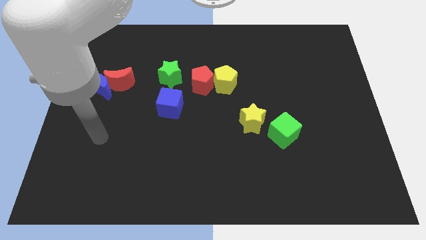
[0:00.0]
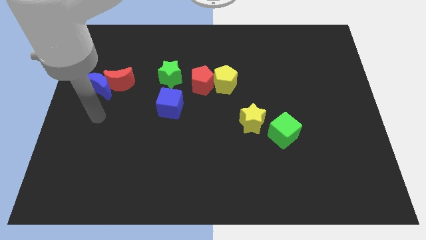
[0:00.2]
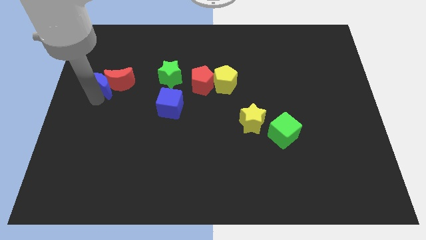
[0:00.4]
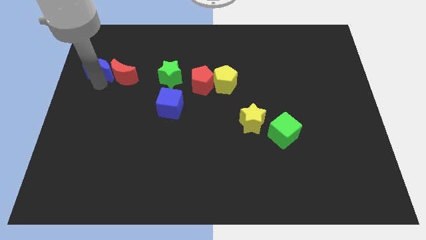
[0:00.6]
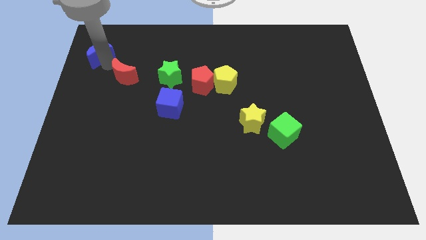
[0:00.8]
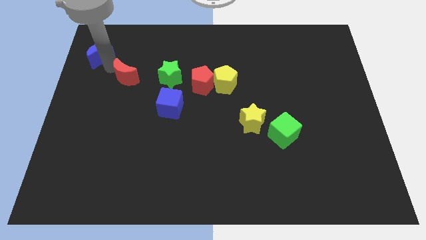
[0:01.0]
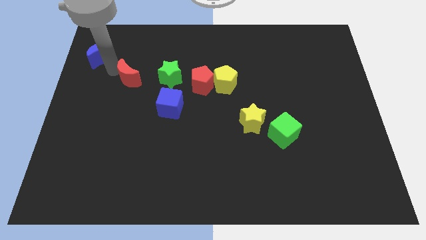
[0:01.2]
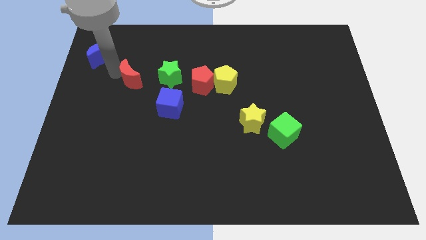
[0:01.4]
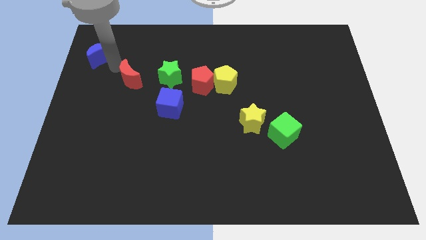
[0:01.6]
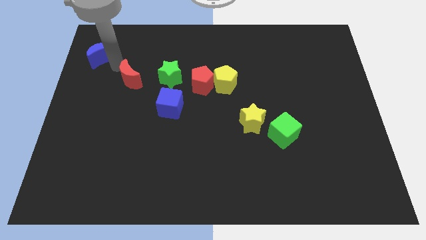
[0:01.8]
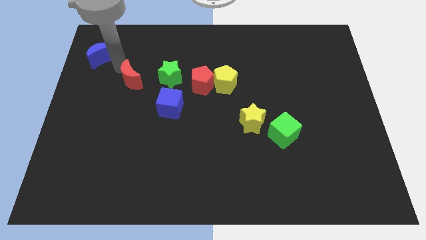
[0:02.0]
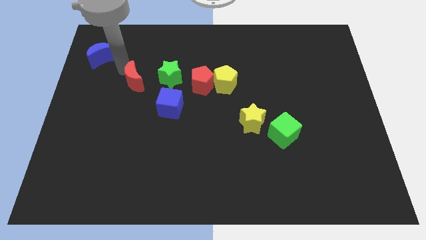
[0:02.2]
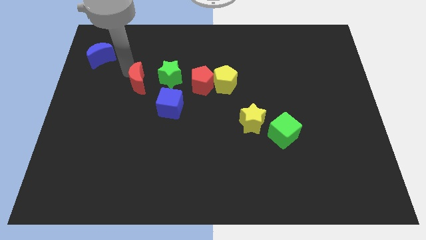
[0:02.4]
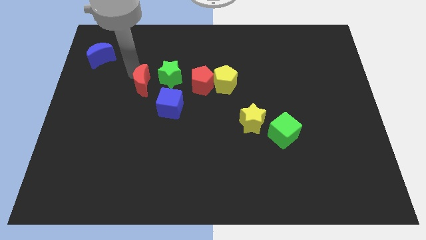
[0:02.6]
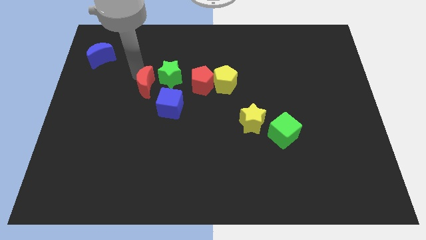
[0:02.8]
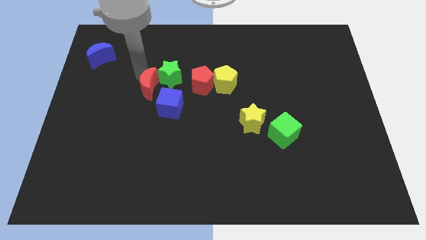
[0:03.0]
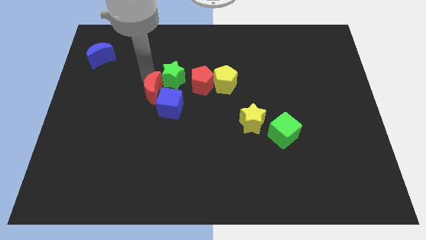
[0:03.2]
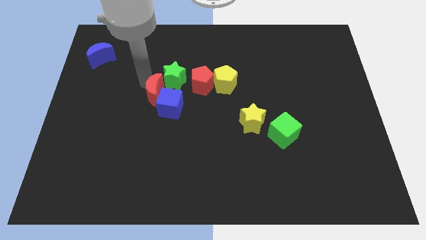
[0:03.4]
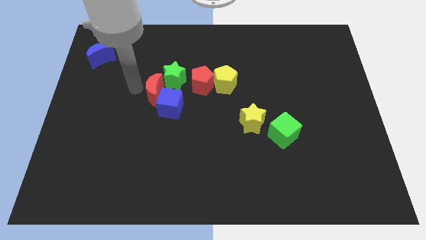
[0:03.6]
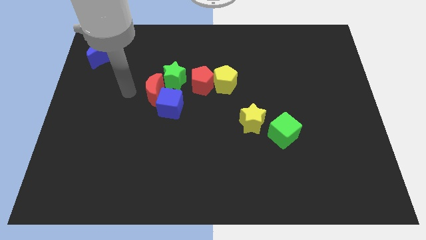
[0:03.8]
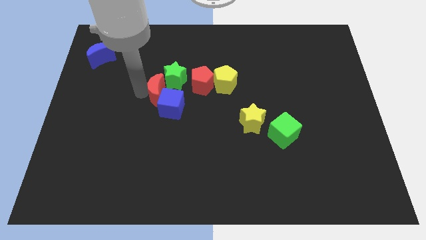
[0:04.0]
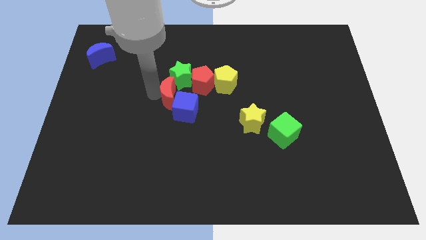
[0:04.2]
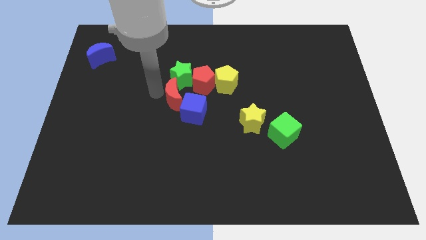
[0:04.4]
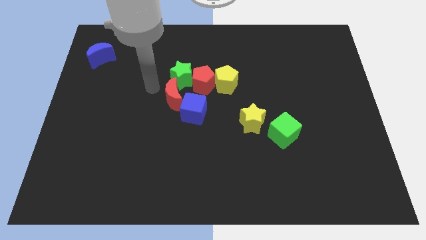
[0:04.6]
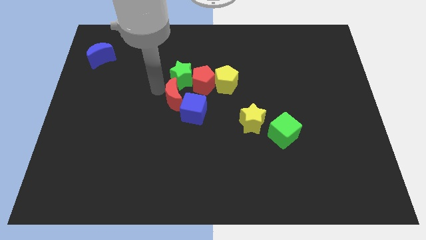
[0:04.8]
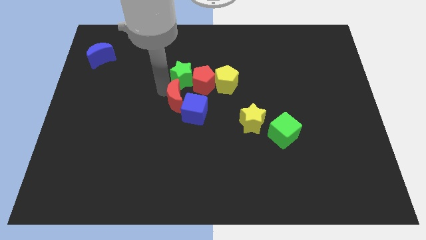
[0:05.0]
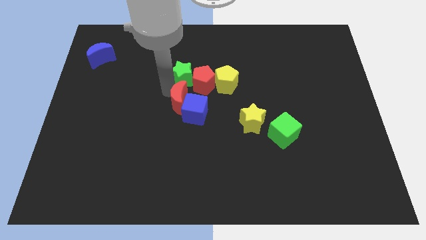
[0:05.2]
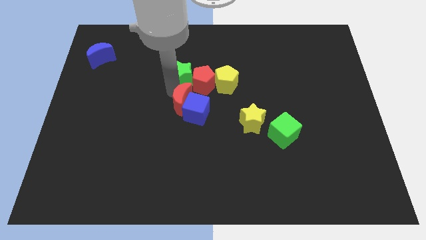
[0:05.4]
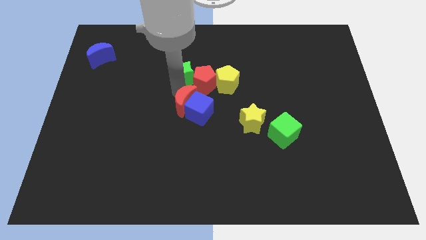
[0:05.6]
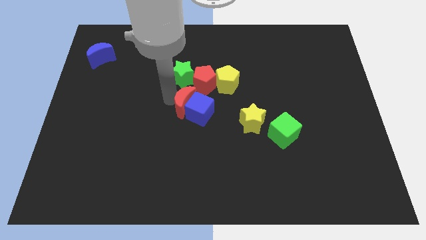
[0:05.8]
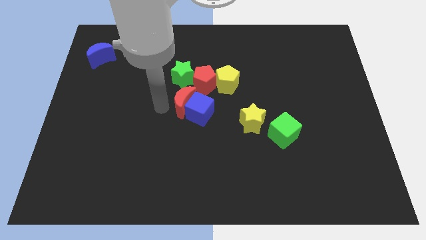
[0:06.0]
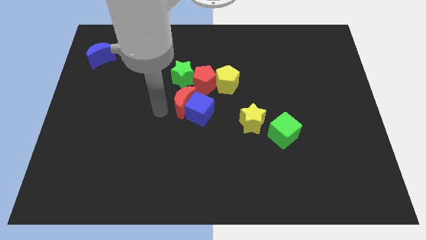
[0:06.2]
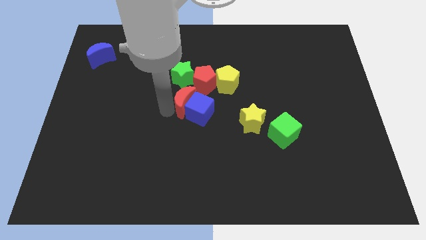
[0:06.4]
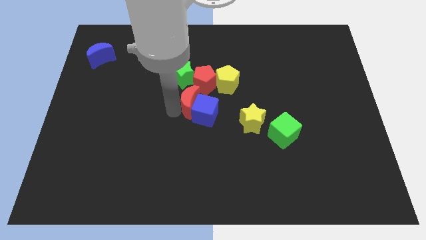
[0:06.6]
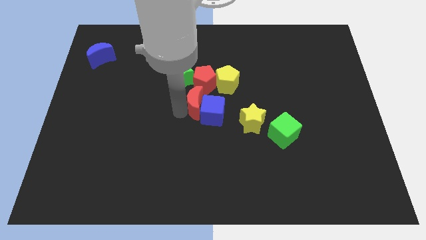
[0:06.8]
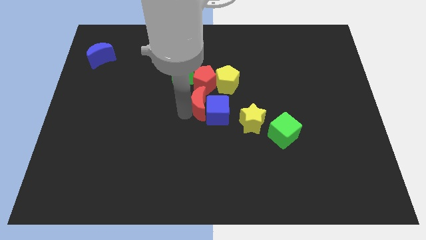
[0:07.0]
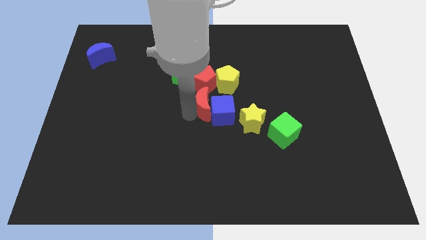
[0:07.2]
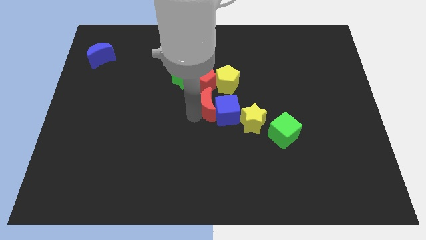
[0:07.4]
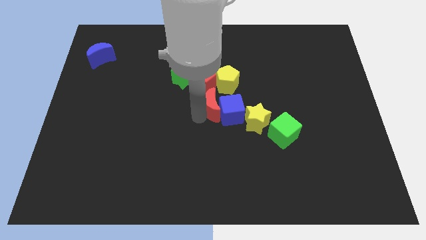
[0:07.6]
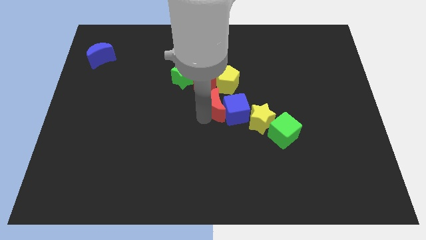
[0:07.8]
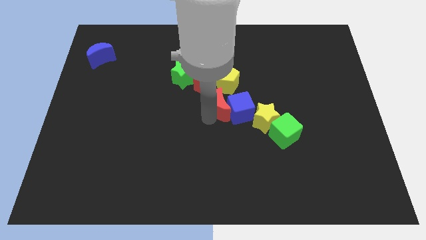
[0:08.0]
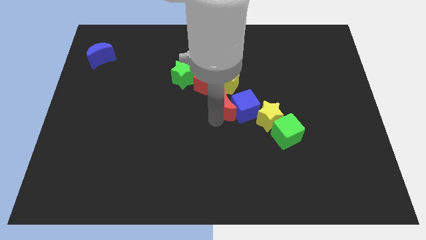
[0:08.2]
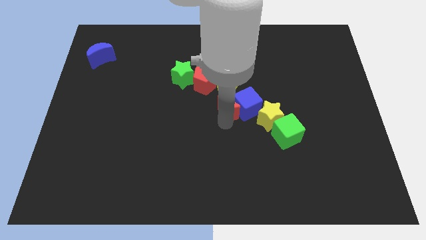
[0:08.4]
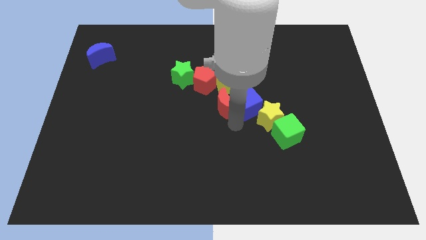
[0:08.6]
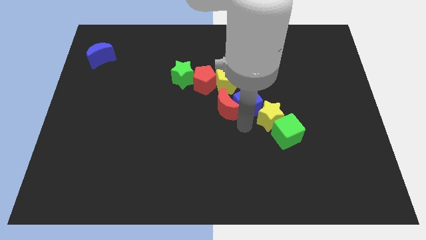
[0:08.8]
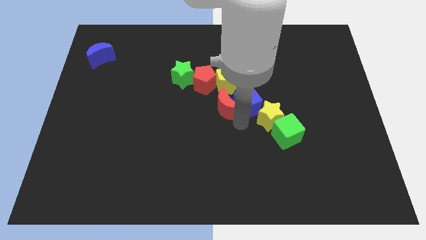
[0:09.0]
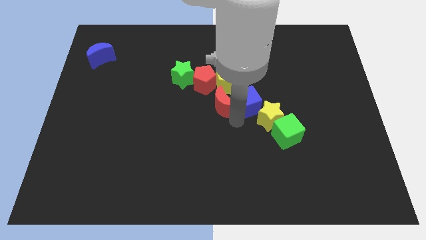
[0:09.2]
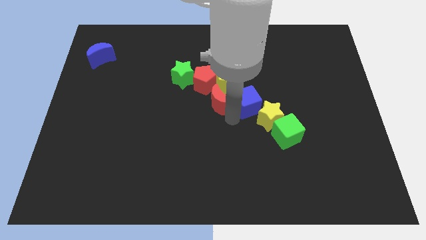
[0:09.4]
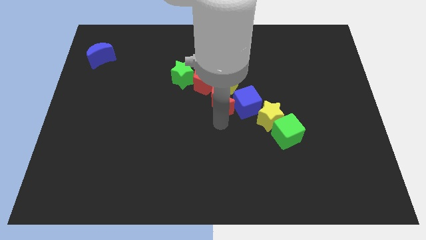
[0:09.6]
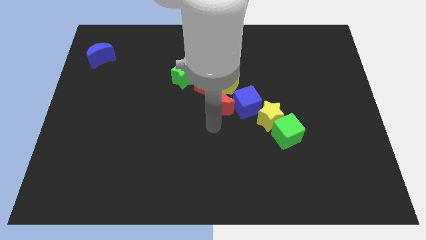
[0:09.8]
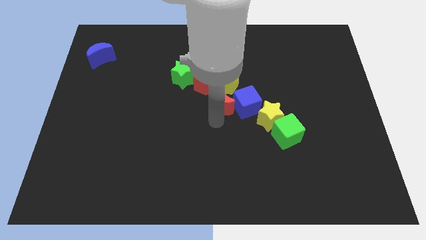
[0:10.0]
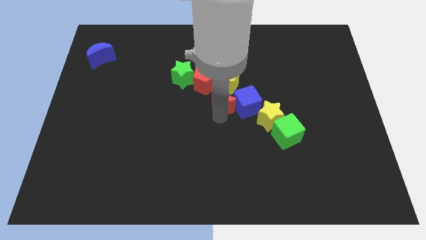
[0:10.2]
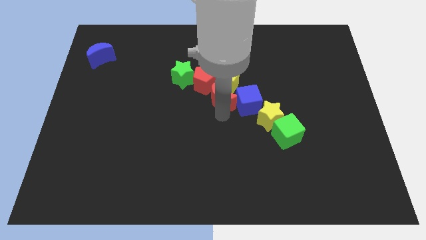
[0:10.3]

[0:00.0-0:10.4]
push the red moon to the yellow pentagon

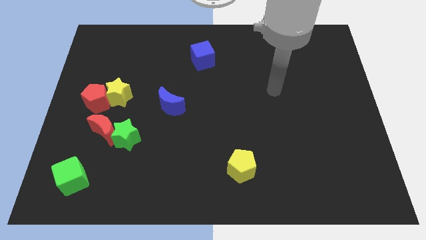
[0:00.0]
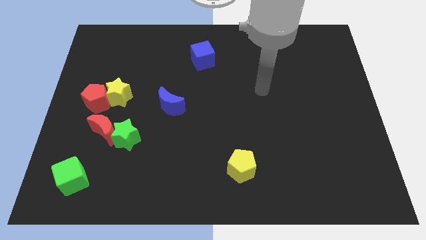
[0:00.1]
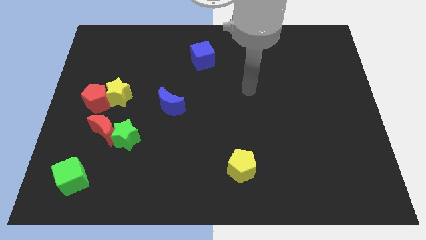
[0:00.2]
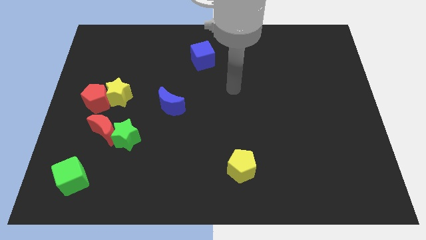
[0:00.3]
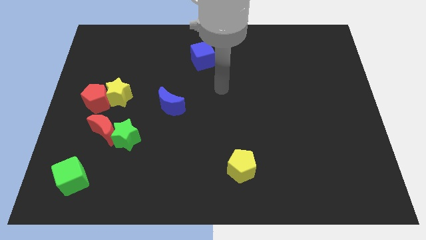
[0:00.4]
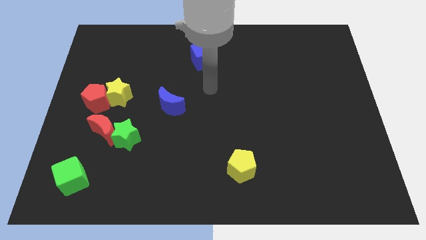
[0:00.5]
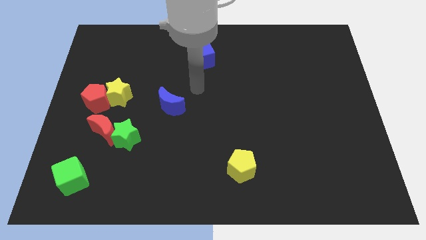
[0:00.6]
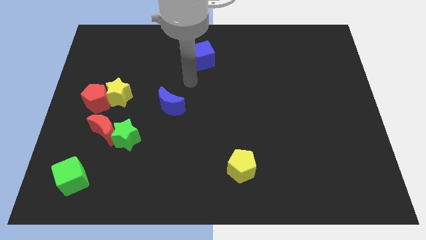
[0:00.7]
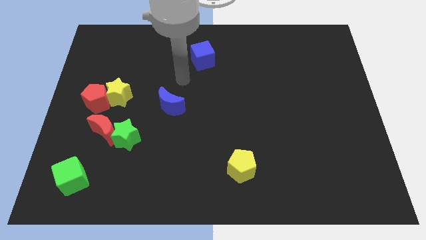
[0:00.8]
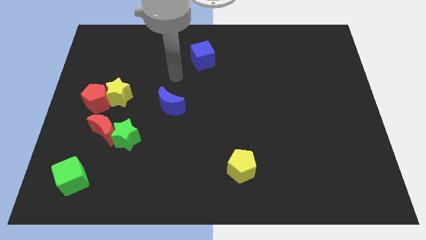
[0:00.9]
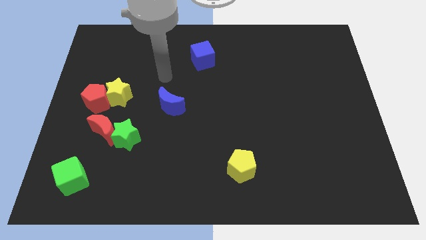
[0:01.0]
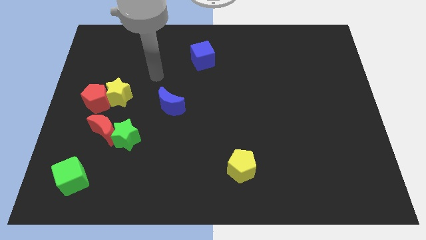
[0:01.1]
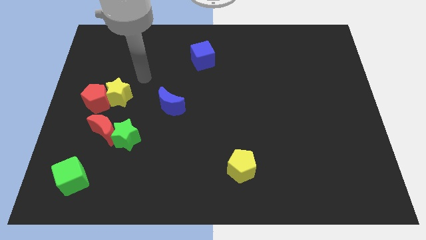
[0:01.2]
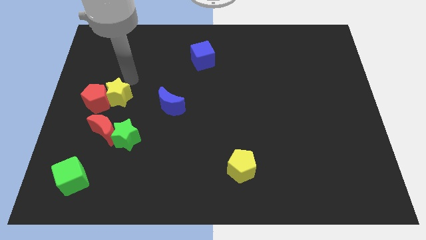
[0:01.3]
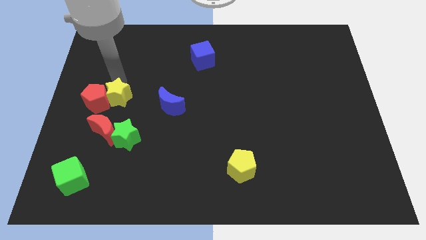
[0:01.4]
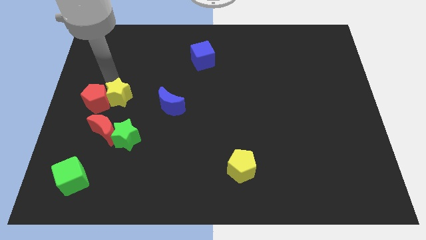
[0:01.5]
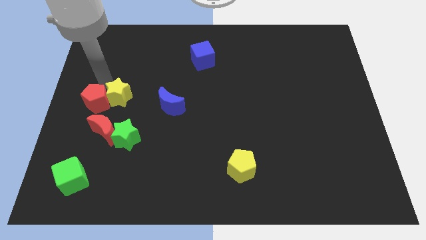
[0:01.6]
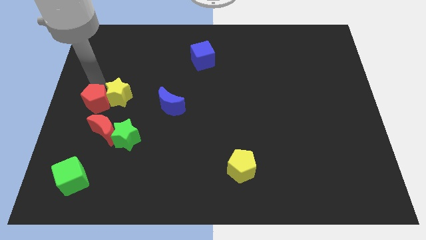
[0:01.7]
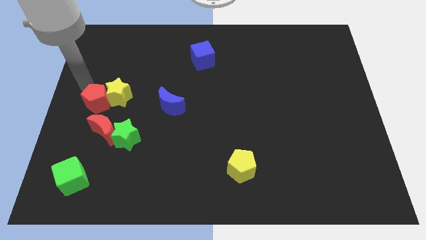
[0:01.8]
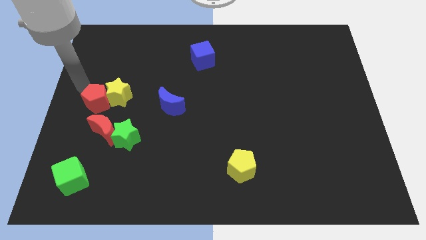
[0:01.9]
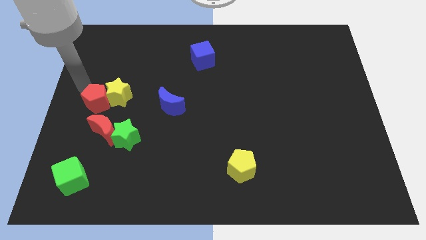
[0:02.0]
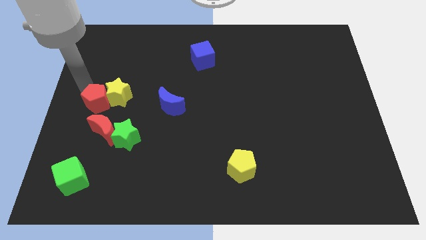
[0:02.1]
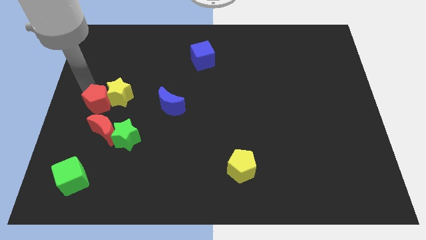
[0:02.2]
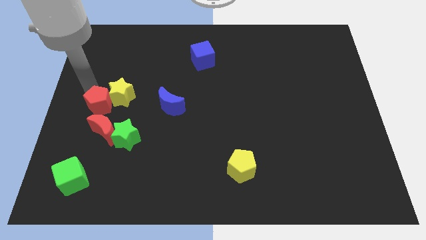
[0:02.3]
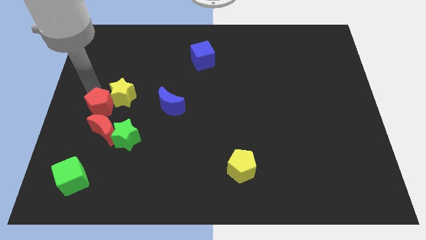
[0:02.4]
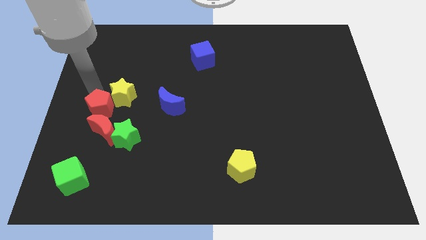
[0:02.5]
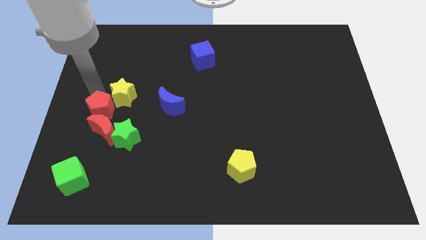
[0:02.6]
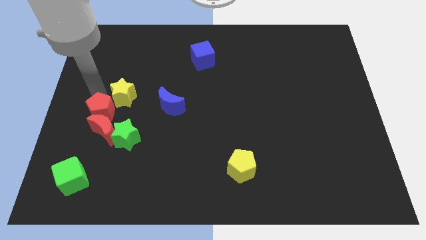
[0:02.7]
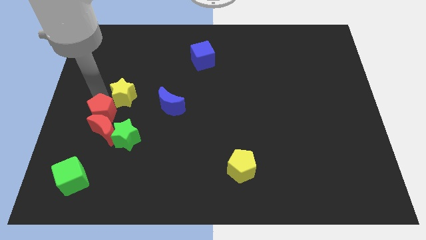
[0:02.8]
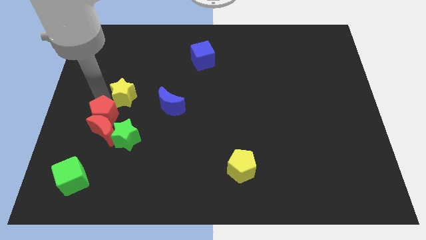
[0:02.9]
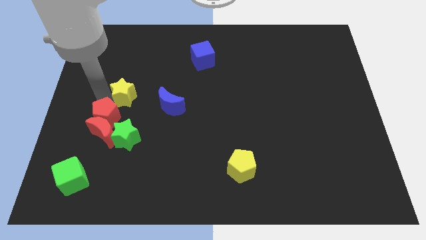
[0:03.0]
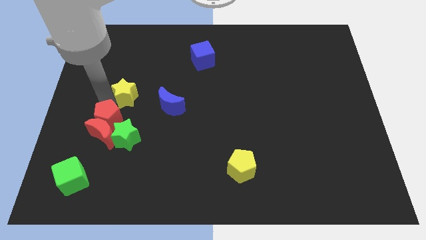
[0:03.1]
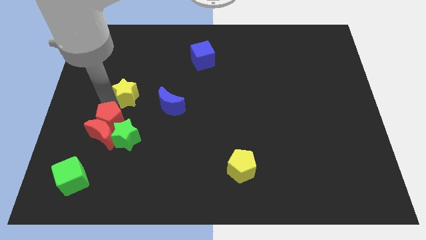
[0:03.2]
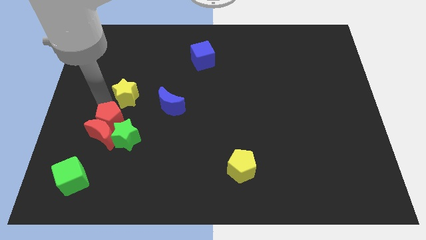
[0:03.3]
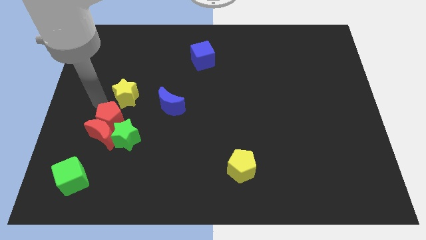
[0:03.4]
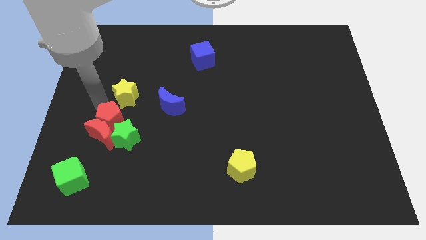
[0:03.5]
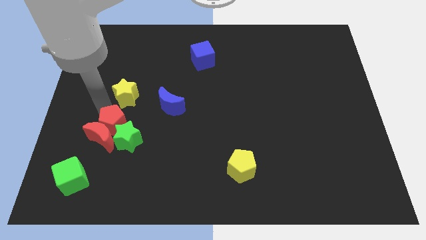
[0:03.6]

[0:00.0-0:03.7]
push the red pentagon towards the green star
